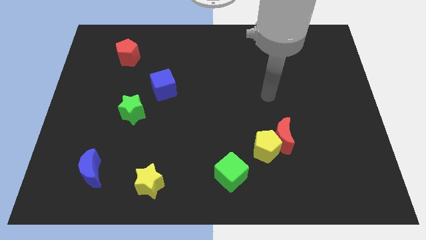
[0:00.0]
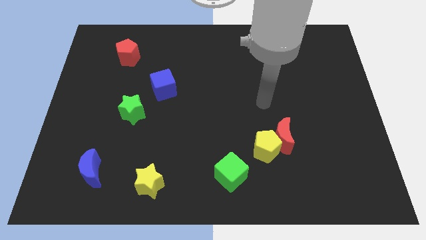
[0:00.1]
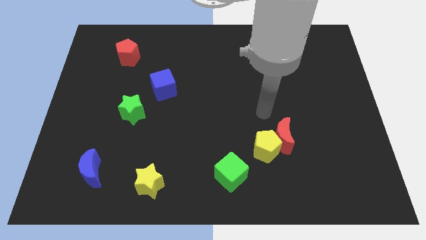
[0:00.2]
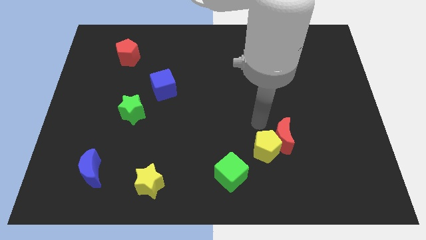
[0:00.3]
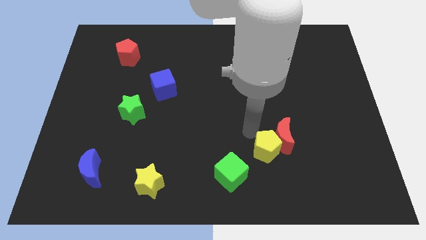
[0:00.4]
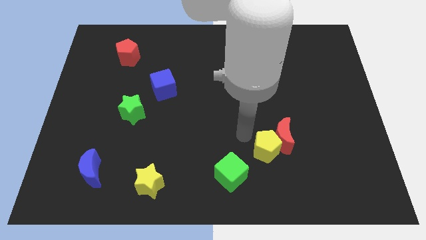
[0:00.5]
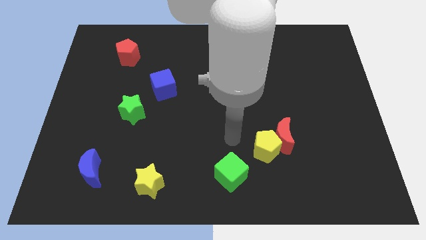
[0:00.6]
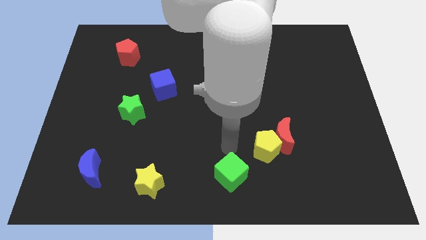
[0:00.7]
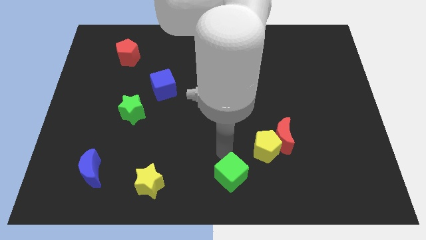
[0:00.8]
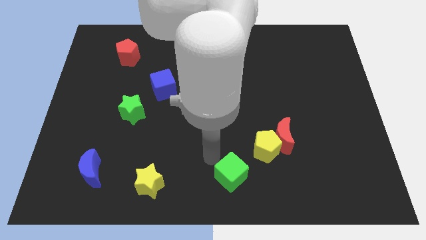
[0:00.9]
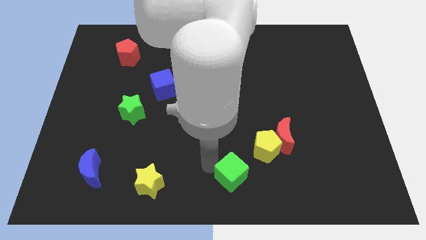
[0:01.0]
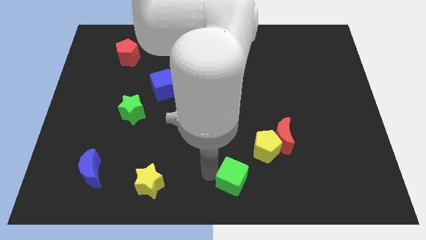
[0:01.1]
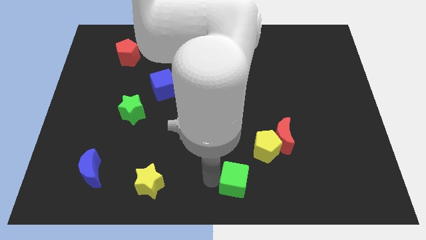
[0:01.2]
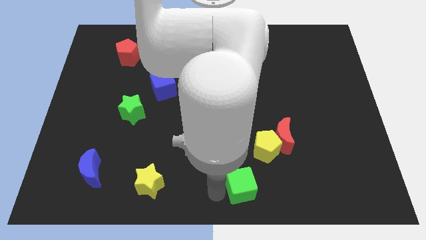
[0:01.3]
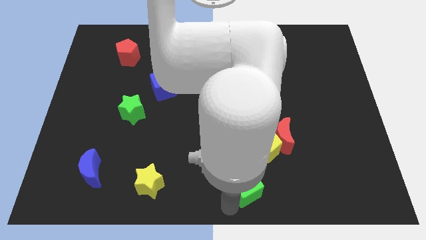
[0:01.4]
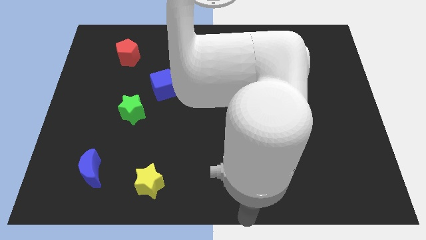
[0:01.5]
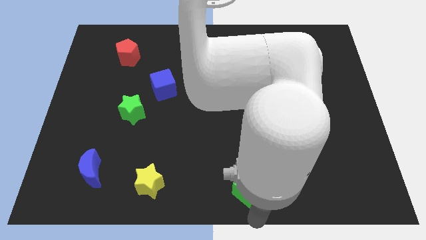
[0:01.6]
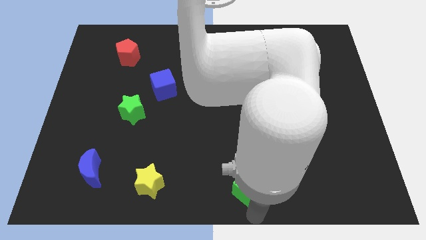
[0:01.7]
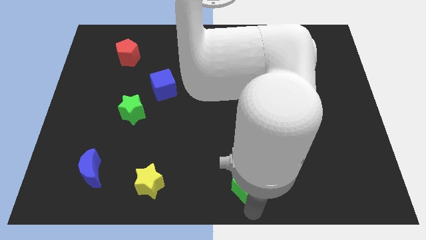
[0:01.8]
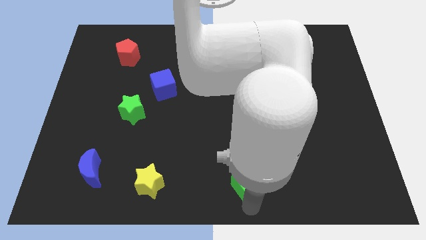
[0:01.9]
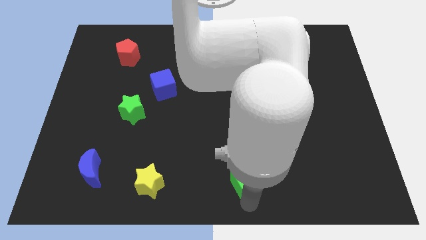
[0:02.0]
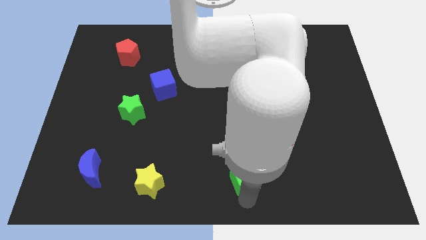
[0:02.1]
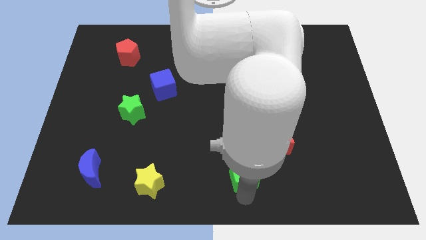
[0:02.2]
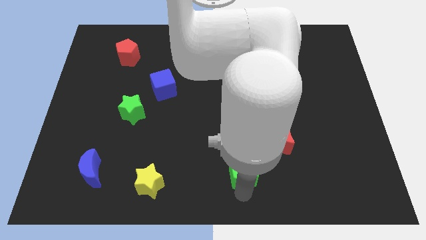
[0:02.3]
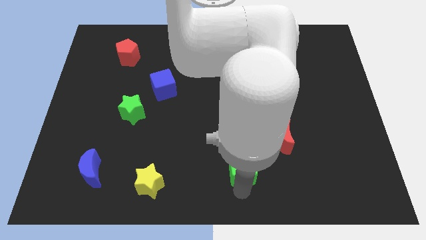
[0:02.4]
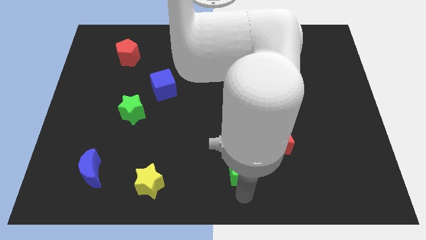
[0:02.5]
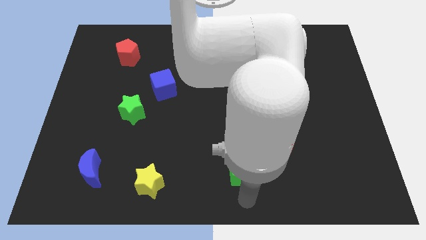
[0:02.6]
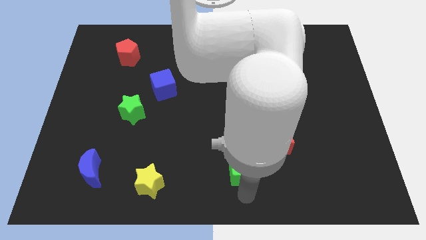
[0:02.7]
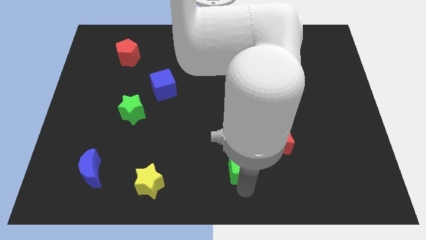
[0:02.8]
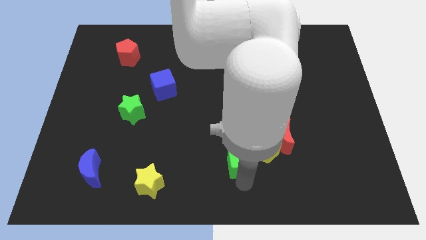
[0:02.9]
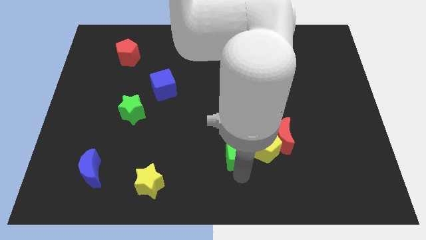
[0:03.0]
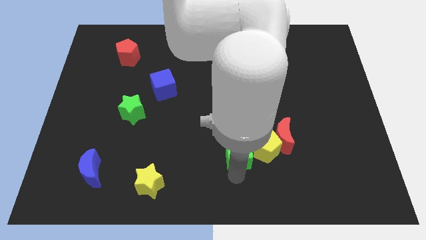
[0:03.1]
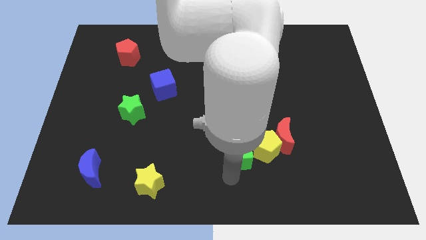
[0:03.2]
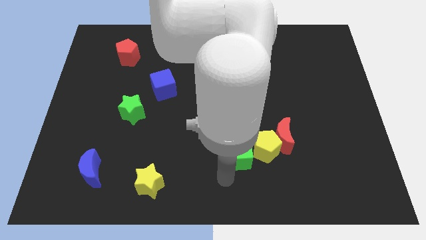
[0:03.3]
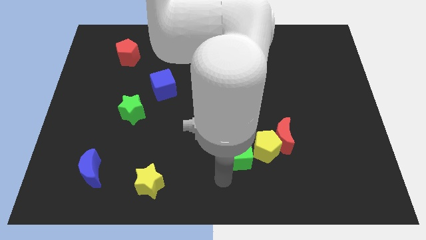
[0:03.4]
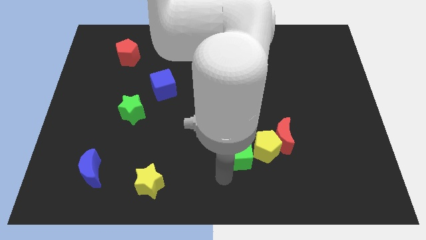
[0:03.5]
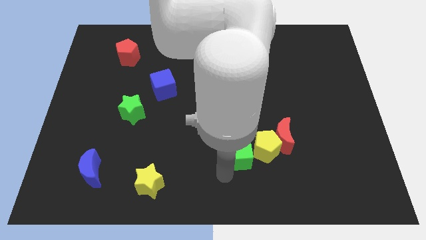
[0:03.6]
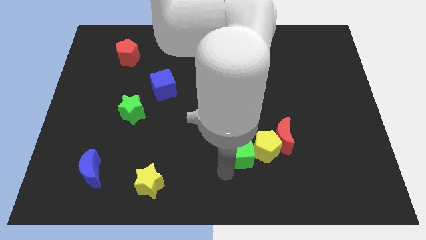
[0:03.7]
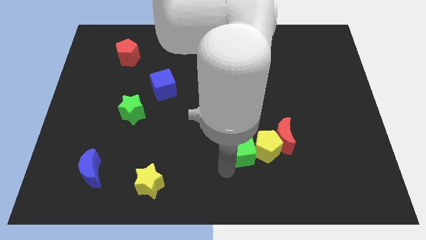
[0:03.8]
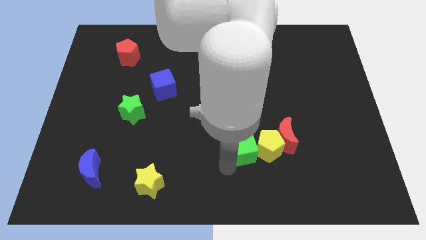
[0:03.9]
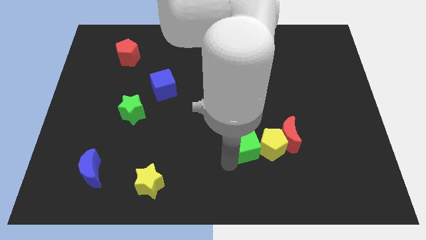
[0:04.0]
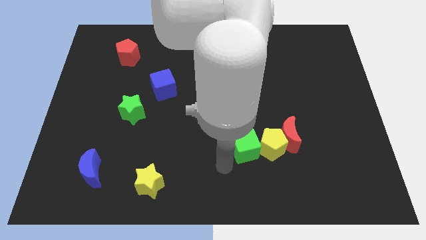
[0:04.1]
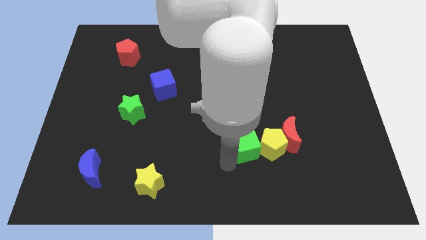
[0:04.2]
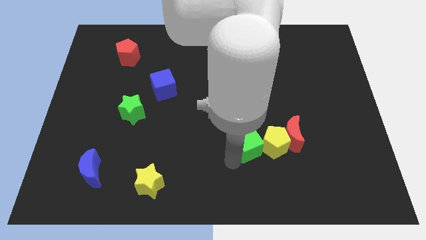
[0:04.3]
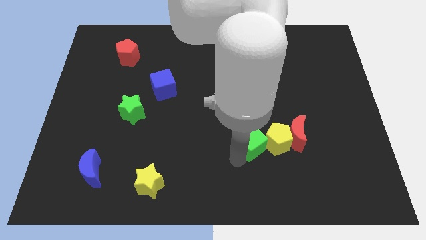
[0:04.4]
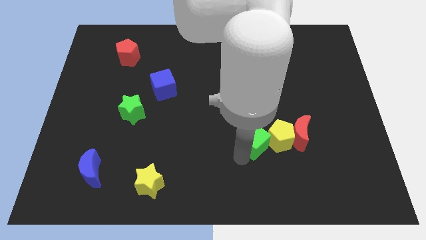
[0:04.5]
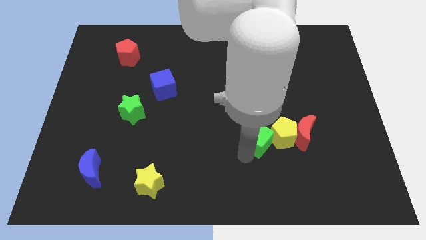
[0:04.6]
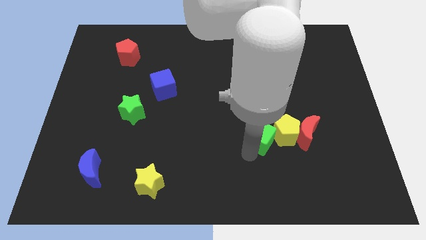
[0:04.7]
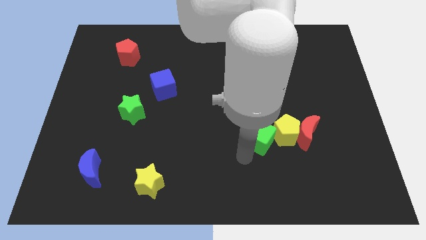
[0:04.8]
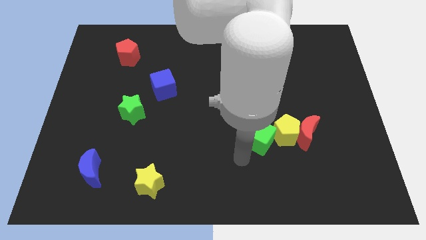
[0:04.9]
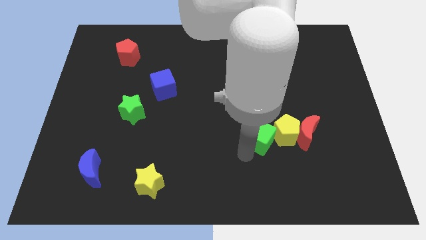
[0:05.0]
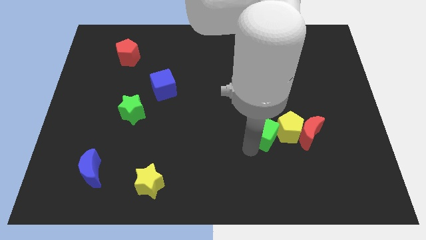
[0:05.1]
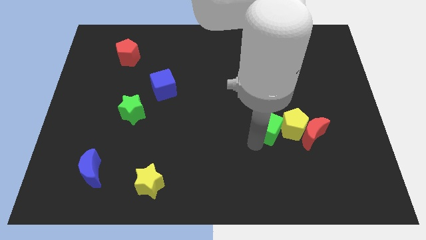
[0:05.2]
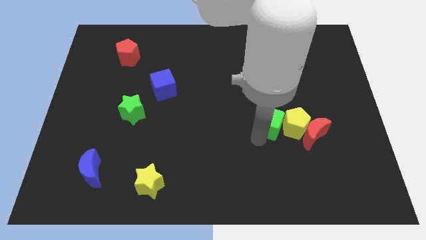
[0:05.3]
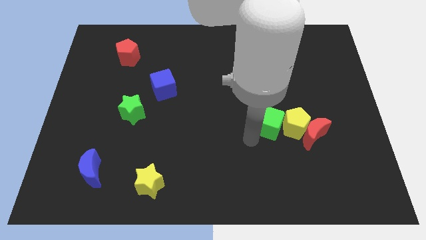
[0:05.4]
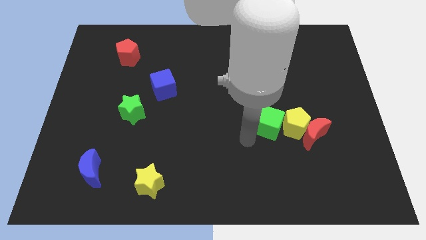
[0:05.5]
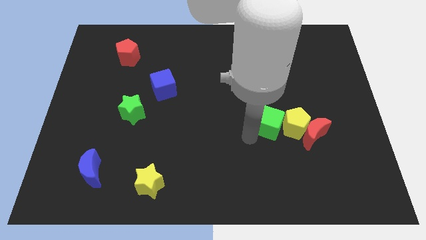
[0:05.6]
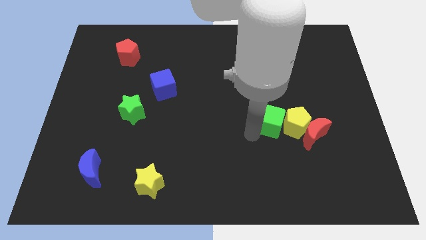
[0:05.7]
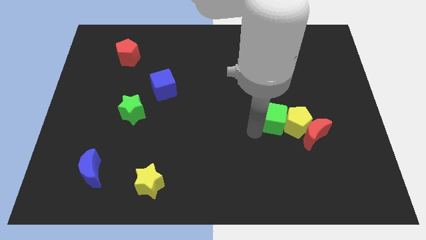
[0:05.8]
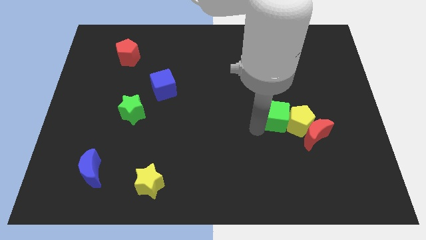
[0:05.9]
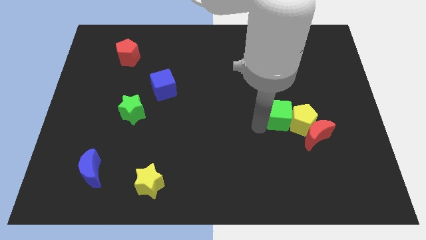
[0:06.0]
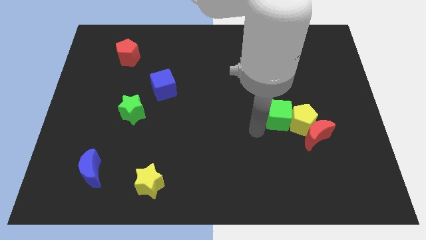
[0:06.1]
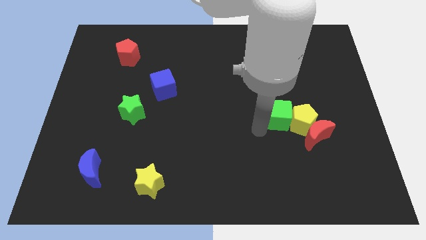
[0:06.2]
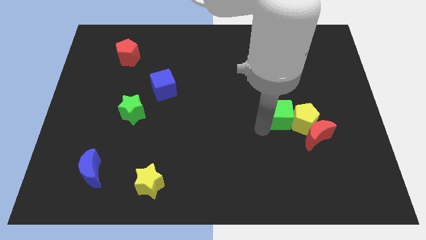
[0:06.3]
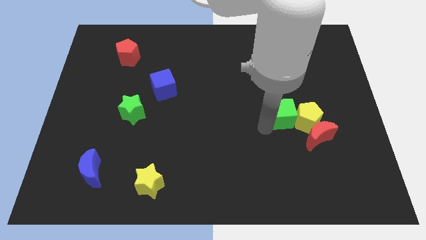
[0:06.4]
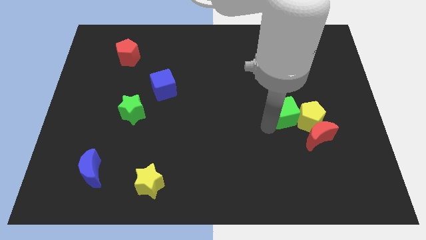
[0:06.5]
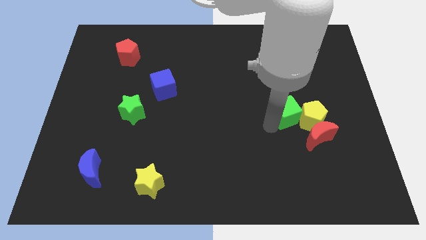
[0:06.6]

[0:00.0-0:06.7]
push the green cube upwards and then right

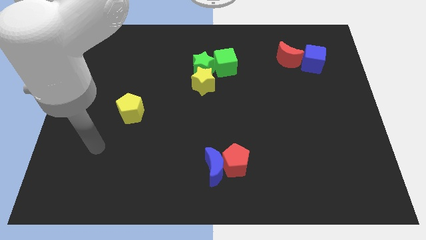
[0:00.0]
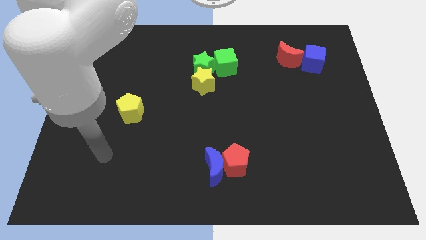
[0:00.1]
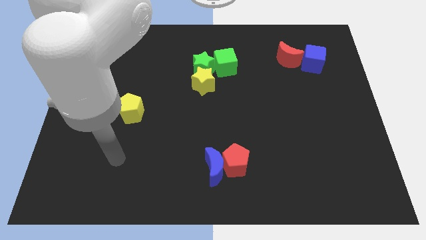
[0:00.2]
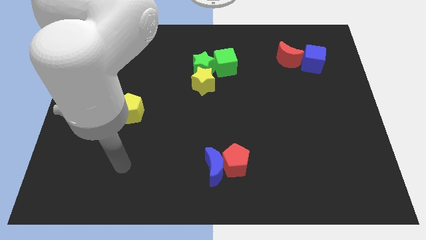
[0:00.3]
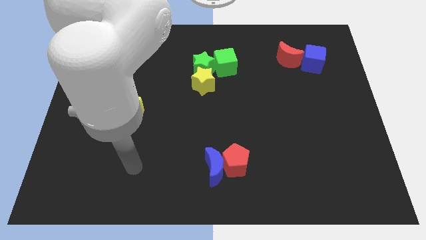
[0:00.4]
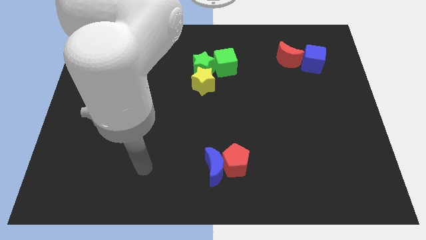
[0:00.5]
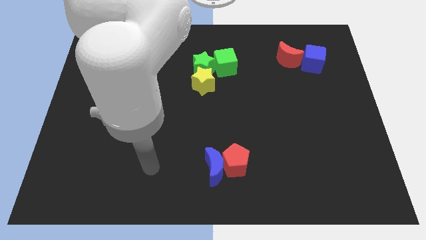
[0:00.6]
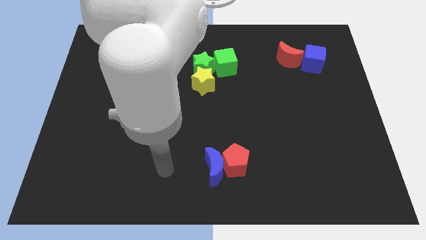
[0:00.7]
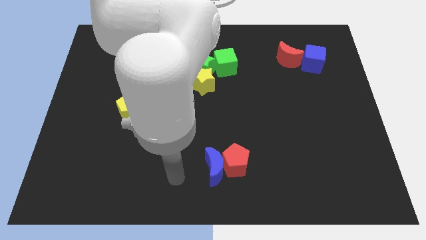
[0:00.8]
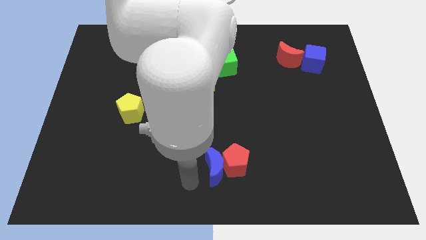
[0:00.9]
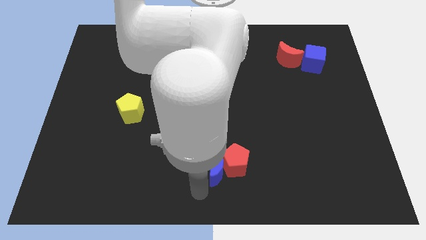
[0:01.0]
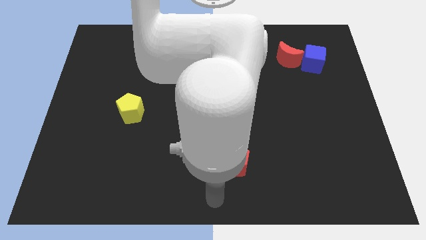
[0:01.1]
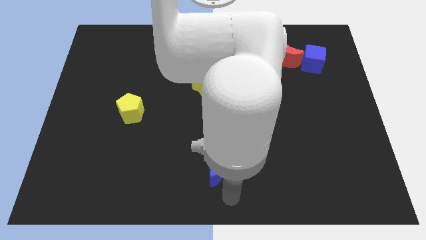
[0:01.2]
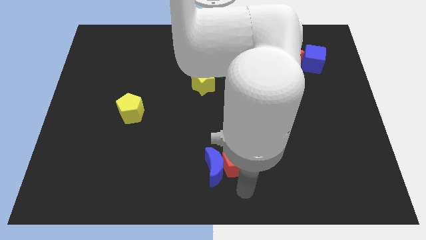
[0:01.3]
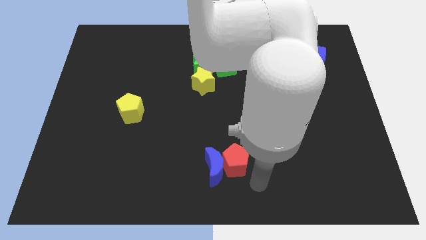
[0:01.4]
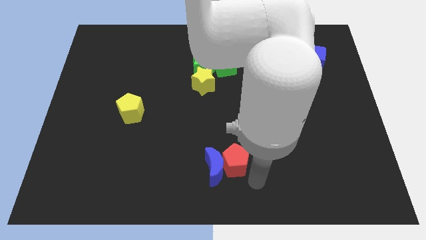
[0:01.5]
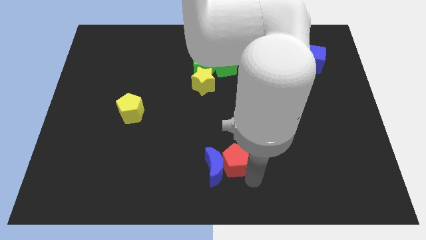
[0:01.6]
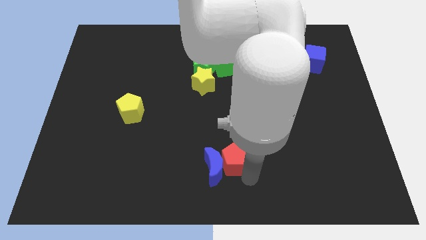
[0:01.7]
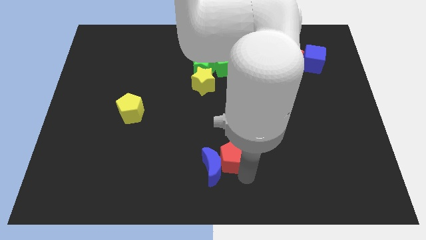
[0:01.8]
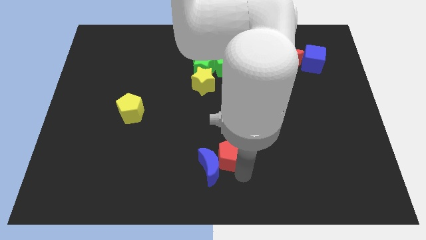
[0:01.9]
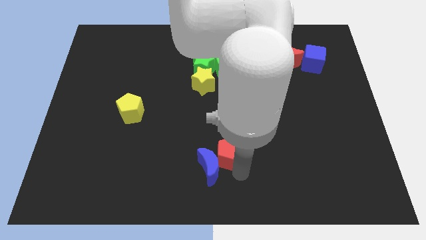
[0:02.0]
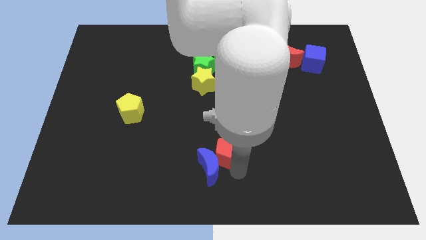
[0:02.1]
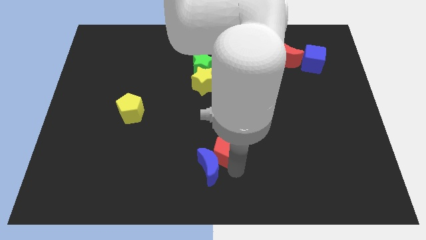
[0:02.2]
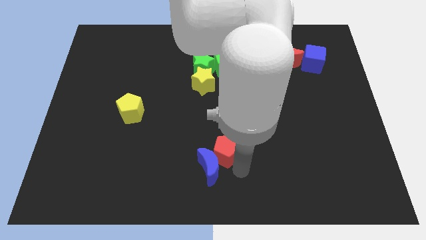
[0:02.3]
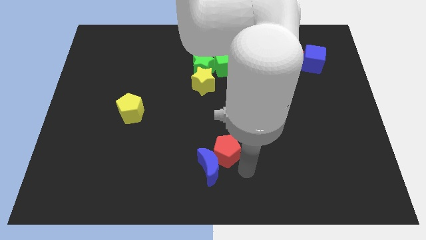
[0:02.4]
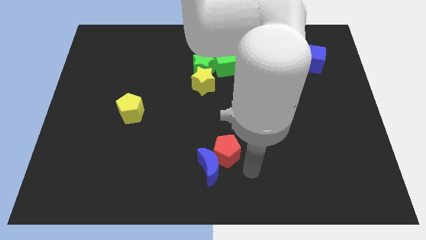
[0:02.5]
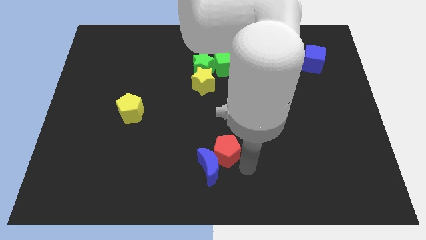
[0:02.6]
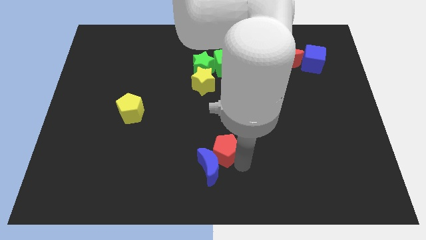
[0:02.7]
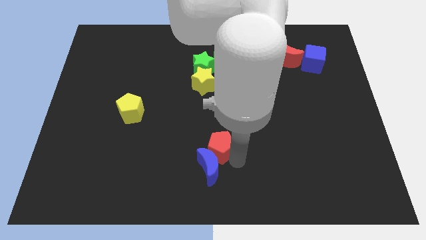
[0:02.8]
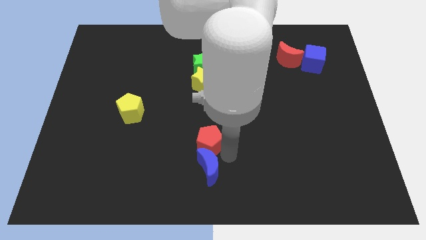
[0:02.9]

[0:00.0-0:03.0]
slide the red pentagon up and then left a little bit
